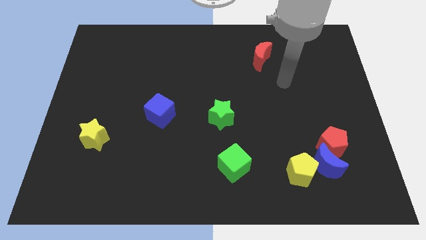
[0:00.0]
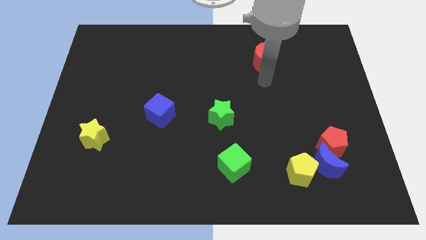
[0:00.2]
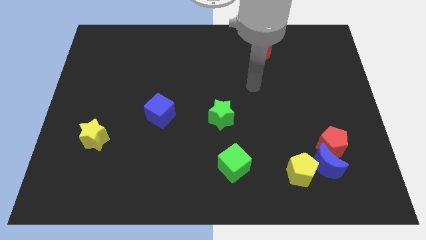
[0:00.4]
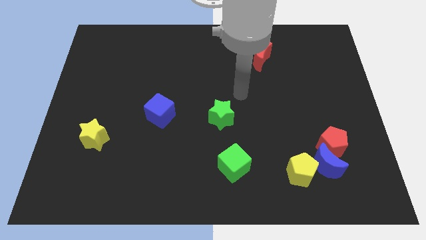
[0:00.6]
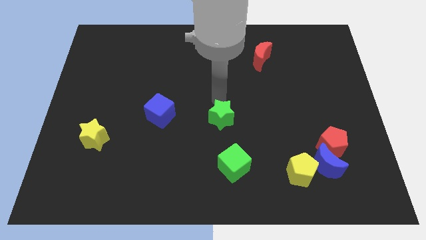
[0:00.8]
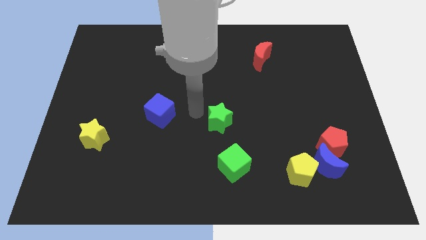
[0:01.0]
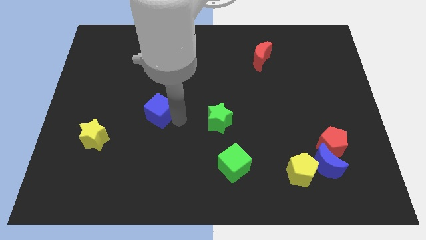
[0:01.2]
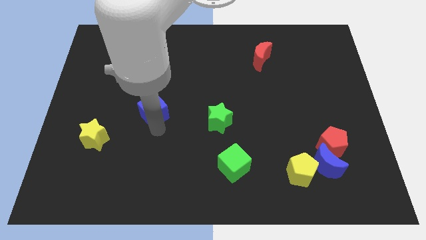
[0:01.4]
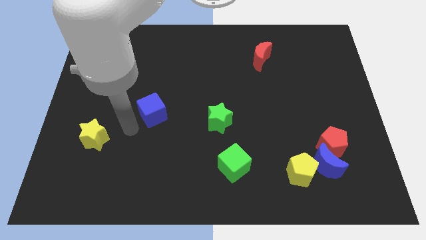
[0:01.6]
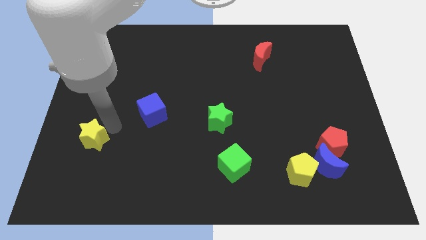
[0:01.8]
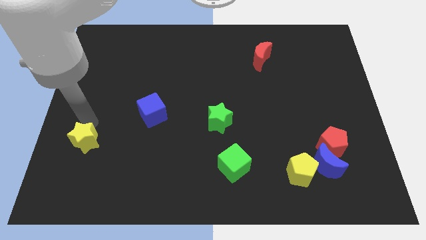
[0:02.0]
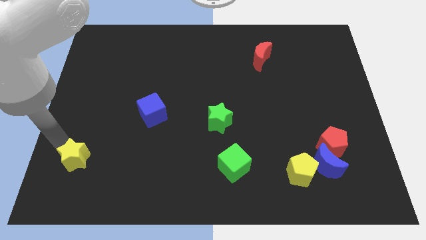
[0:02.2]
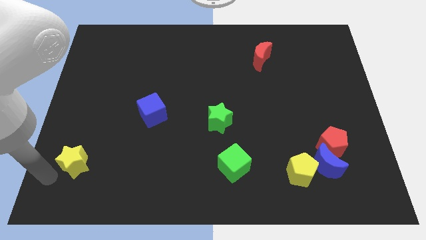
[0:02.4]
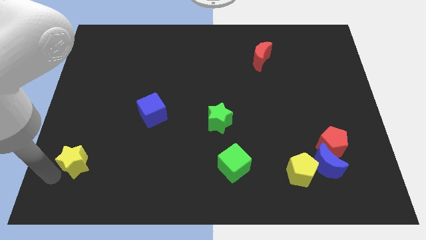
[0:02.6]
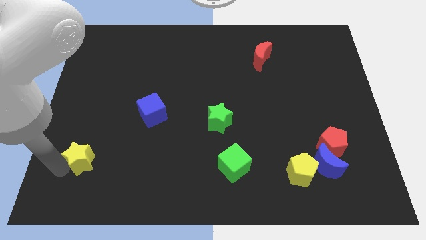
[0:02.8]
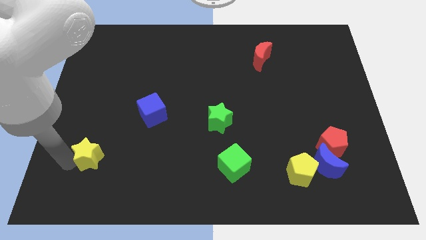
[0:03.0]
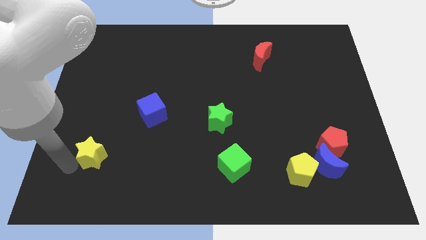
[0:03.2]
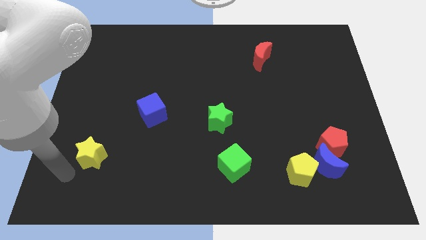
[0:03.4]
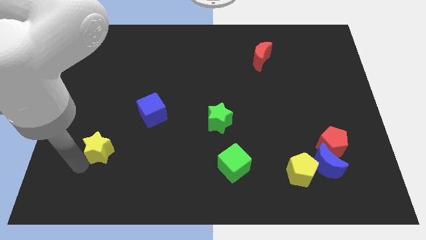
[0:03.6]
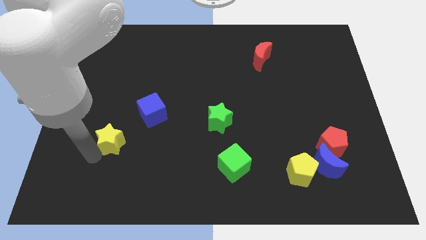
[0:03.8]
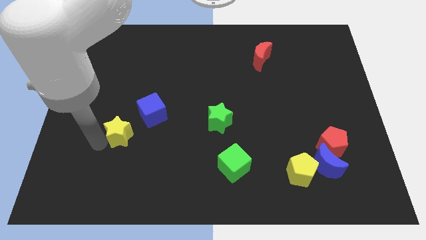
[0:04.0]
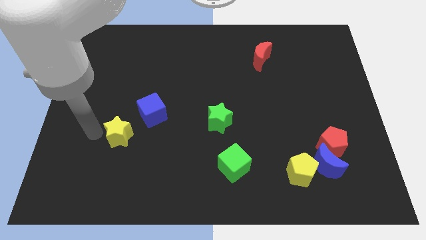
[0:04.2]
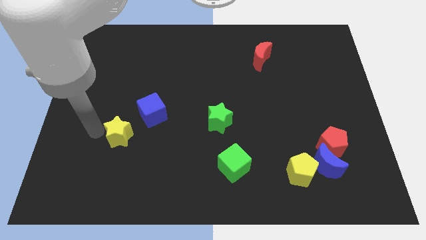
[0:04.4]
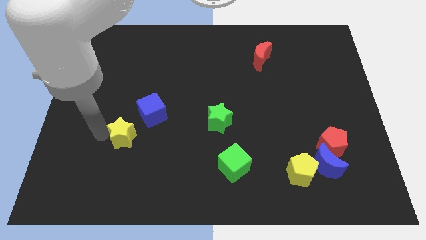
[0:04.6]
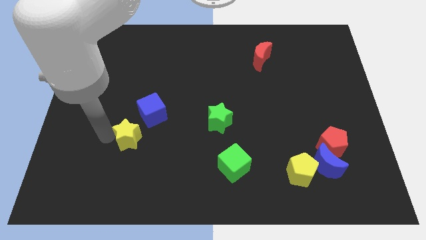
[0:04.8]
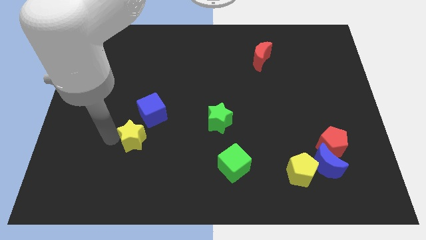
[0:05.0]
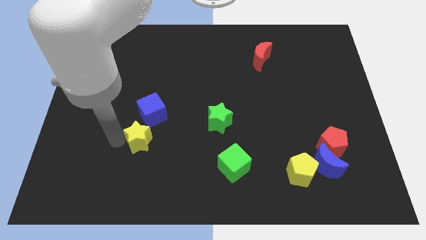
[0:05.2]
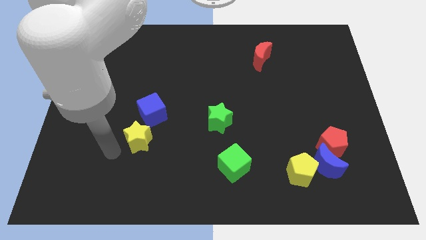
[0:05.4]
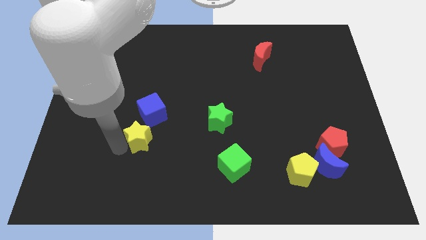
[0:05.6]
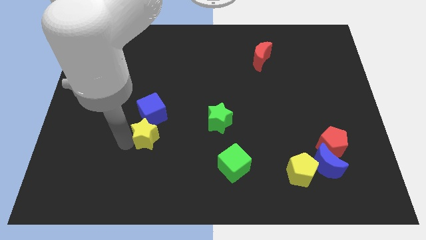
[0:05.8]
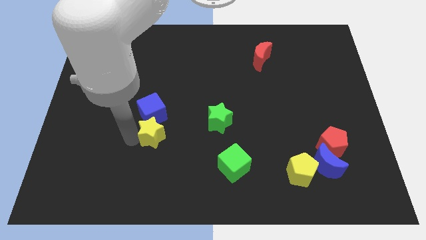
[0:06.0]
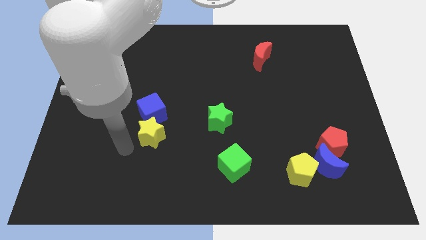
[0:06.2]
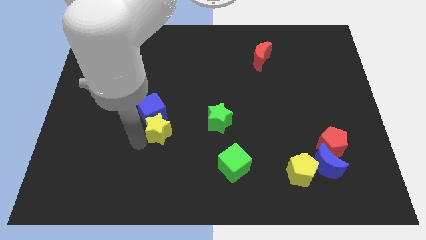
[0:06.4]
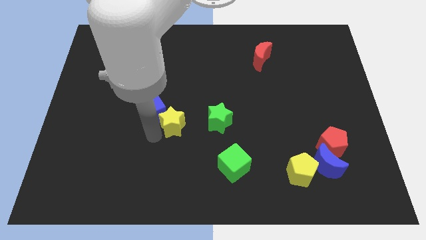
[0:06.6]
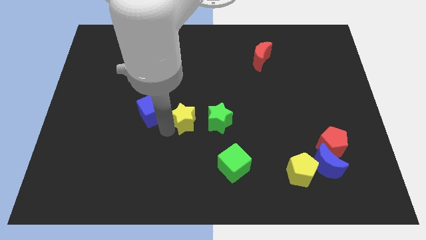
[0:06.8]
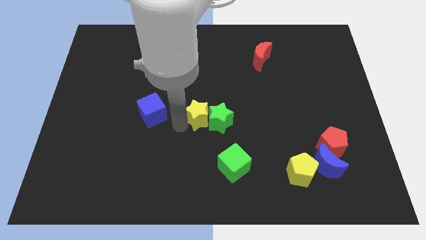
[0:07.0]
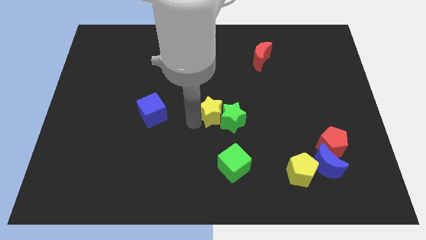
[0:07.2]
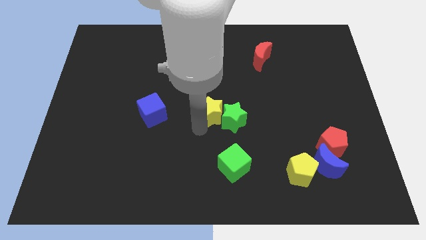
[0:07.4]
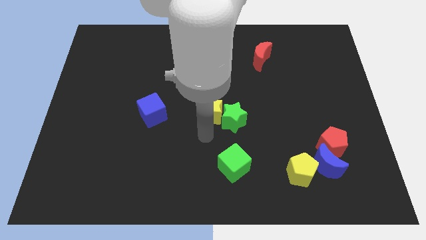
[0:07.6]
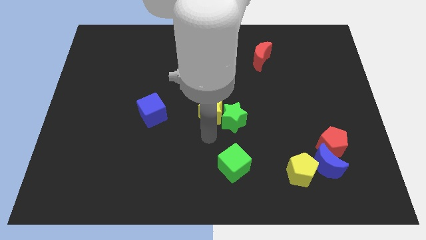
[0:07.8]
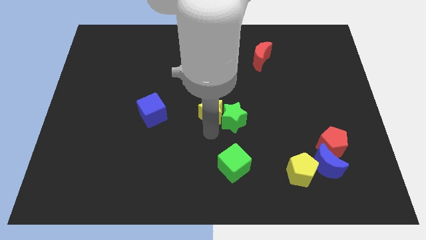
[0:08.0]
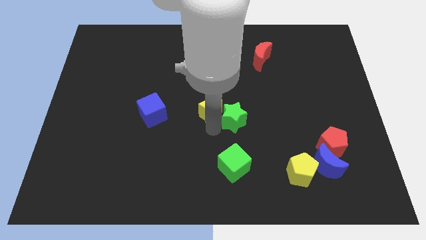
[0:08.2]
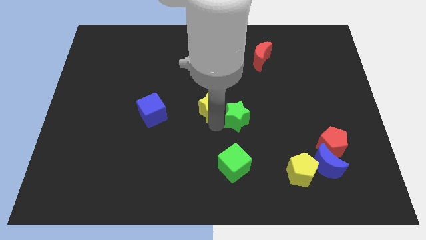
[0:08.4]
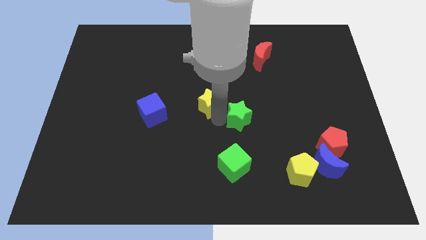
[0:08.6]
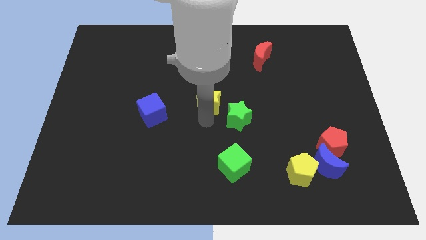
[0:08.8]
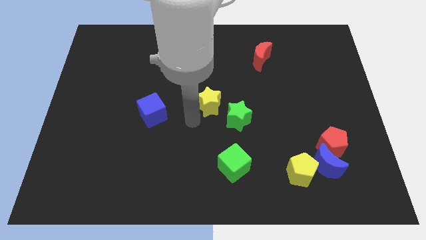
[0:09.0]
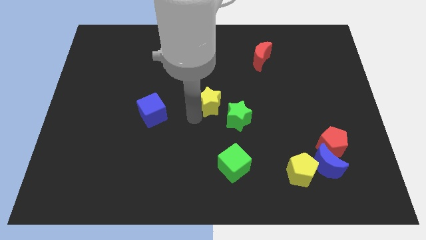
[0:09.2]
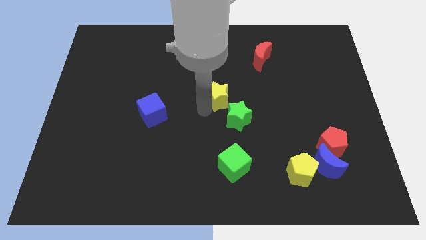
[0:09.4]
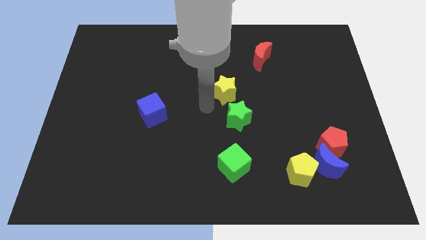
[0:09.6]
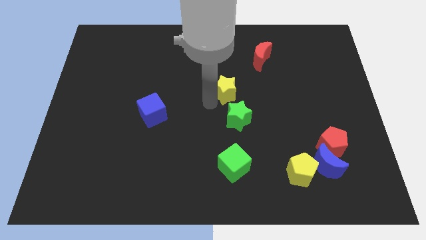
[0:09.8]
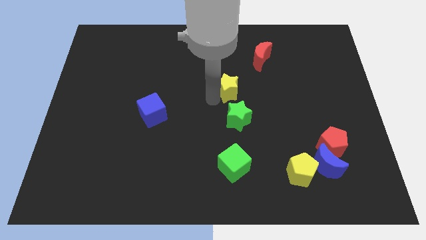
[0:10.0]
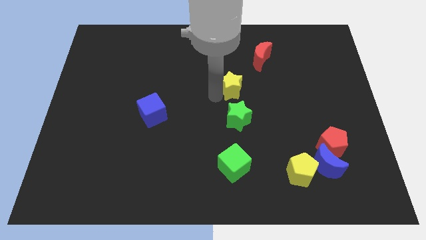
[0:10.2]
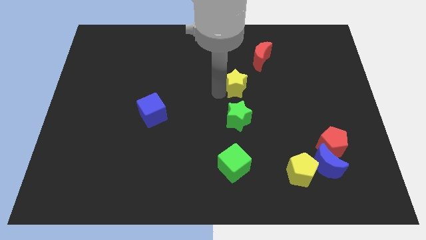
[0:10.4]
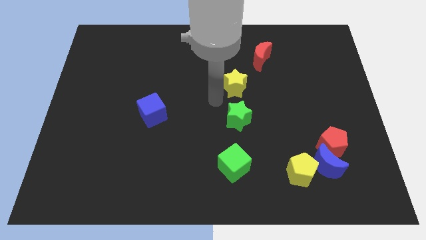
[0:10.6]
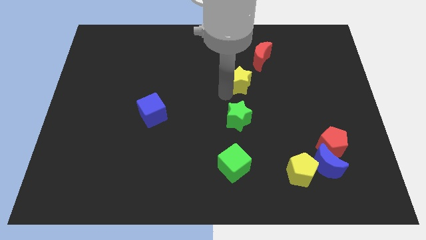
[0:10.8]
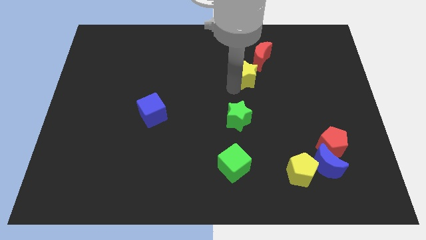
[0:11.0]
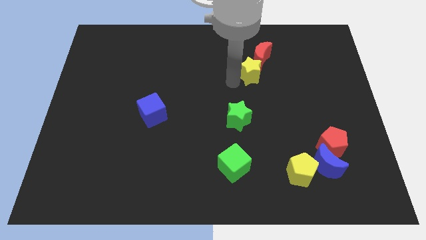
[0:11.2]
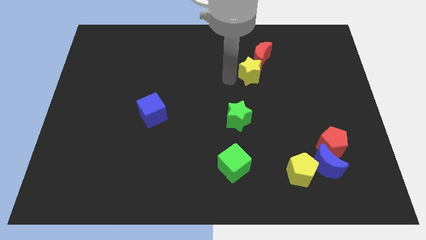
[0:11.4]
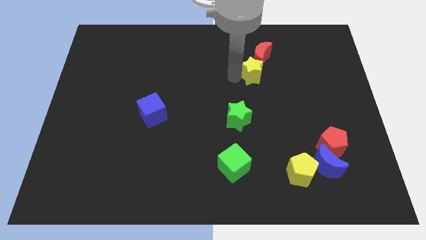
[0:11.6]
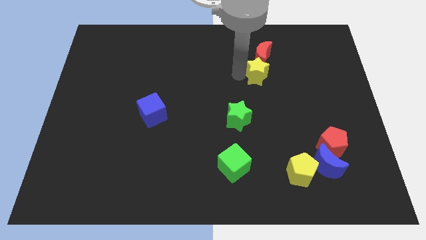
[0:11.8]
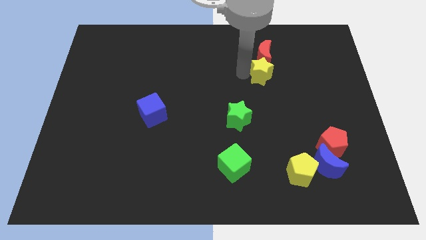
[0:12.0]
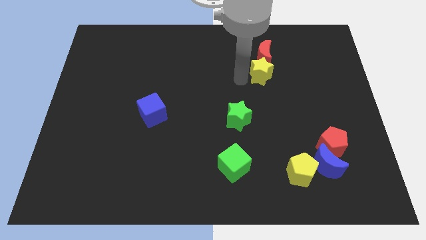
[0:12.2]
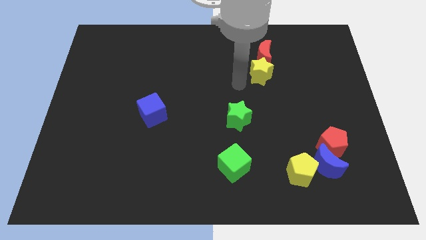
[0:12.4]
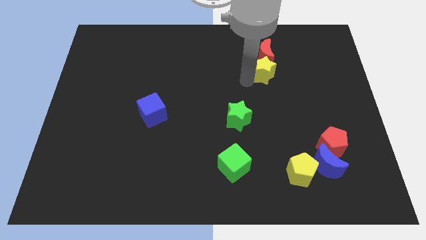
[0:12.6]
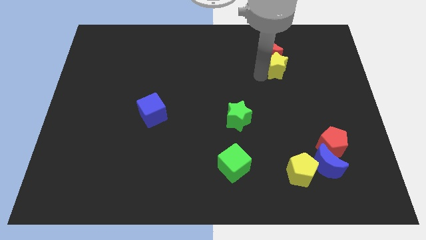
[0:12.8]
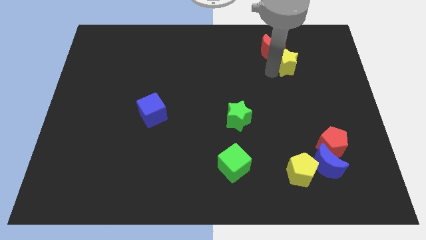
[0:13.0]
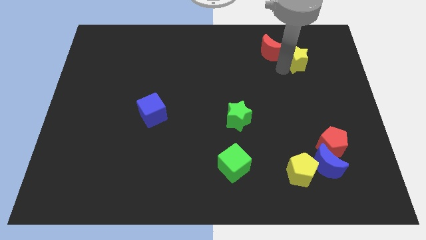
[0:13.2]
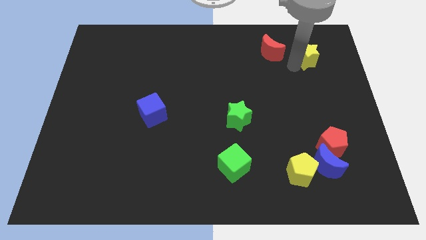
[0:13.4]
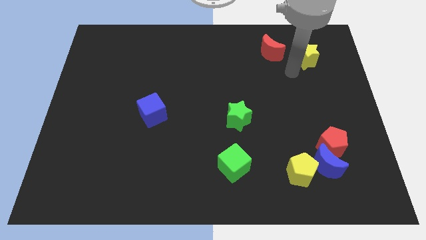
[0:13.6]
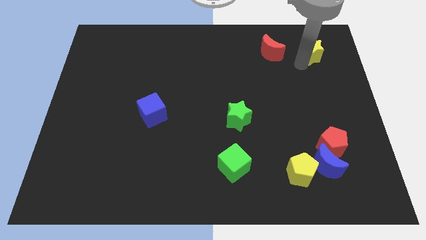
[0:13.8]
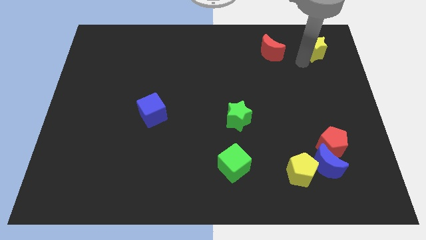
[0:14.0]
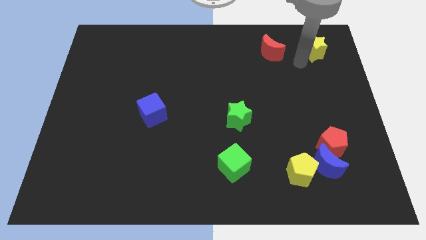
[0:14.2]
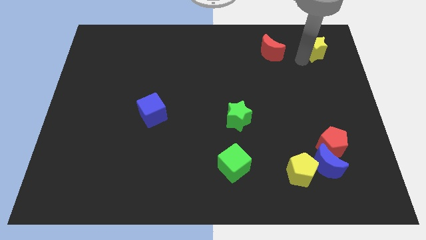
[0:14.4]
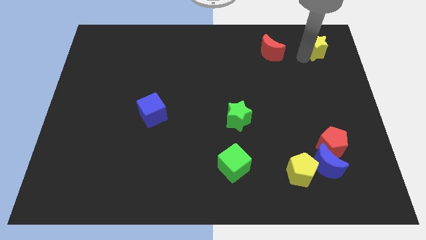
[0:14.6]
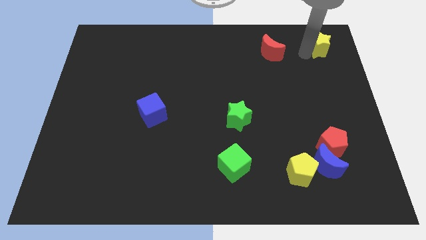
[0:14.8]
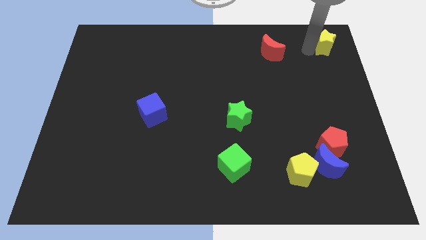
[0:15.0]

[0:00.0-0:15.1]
push the yellow star to the top right
